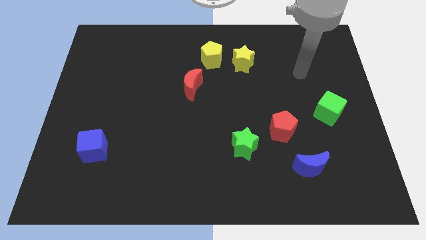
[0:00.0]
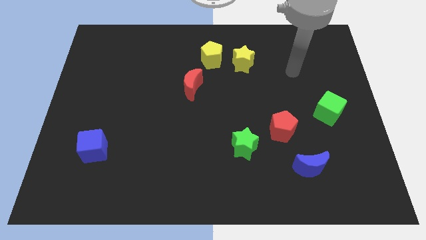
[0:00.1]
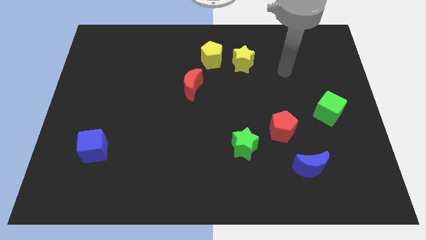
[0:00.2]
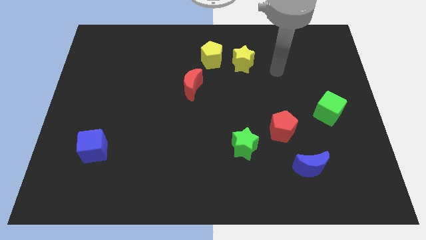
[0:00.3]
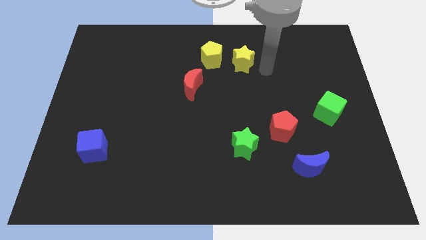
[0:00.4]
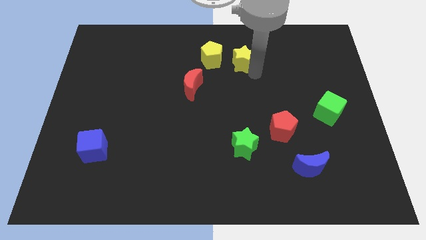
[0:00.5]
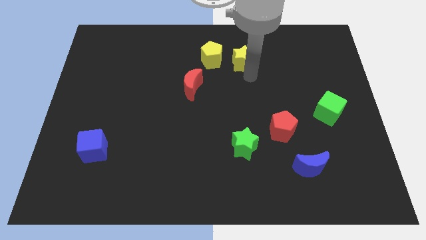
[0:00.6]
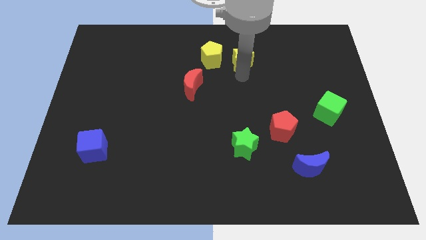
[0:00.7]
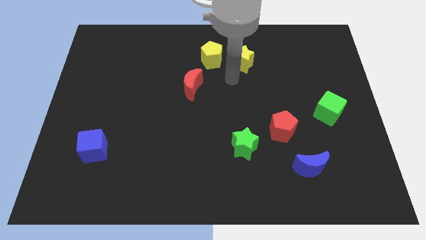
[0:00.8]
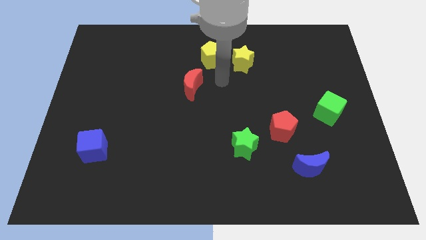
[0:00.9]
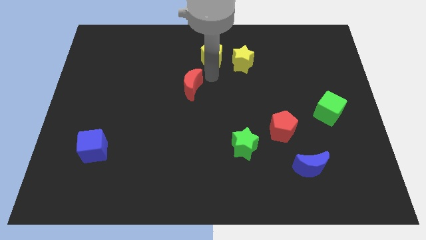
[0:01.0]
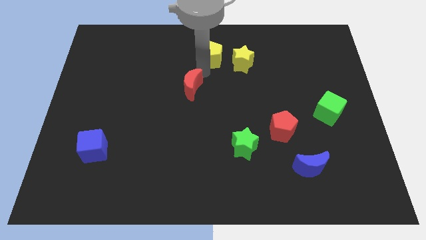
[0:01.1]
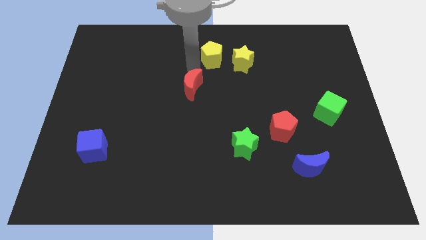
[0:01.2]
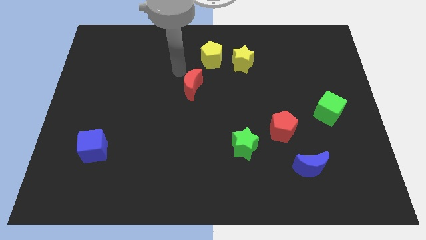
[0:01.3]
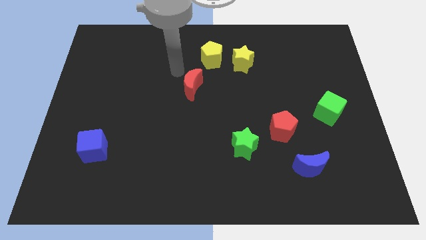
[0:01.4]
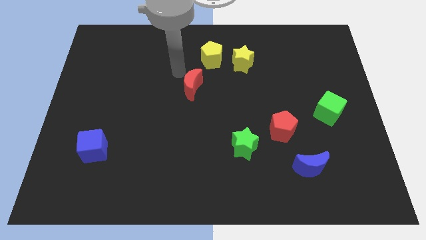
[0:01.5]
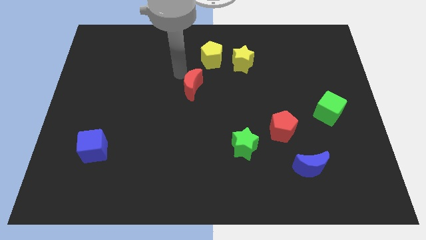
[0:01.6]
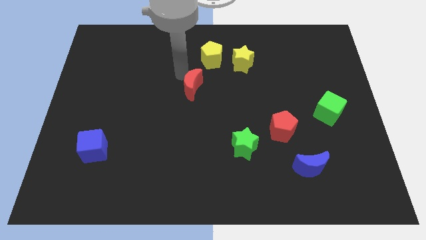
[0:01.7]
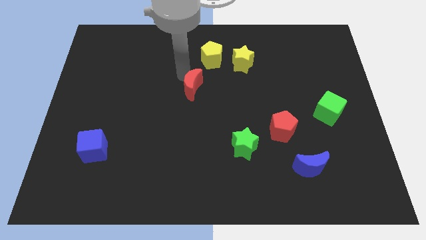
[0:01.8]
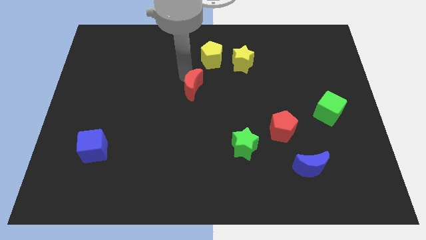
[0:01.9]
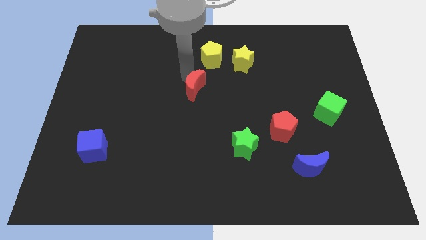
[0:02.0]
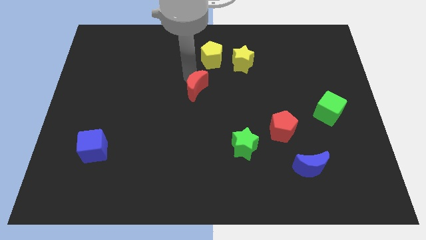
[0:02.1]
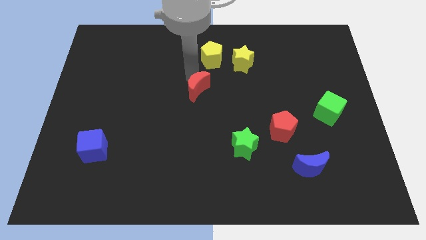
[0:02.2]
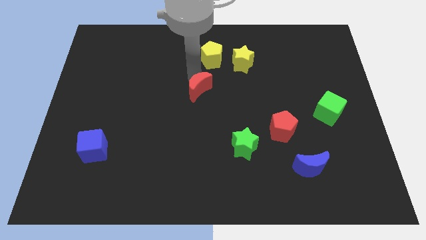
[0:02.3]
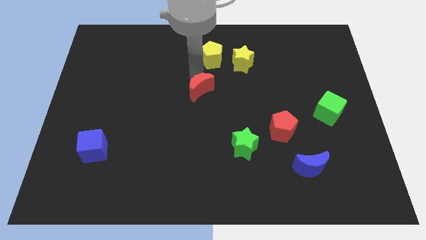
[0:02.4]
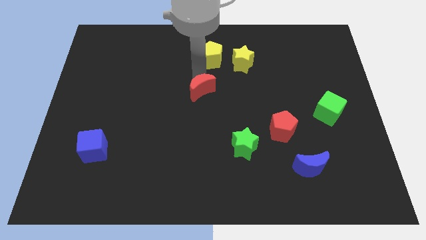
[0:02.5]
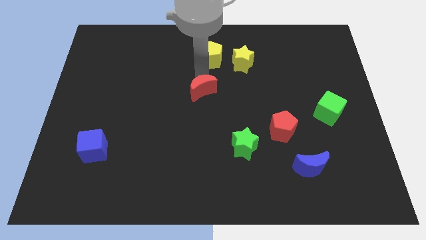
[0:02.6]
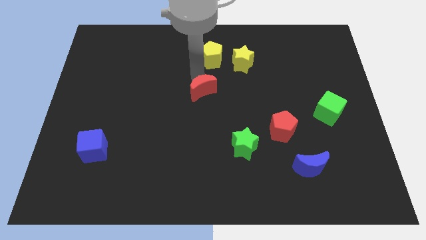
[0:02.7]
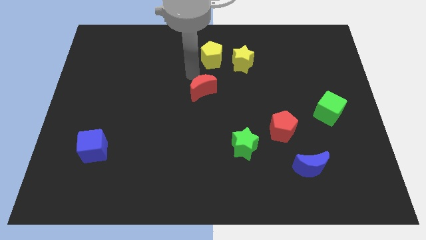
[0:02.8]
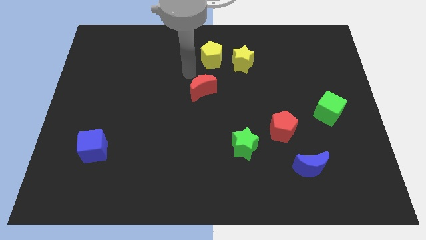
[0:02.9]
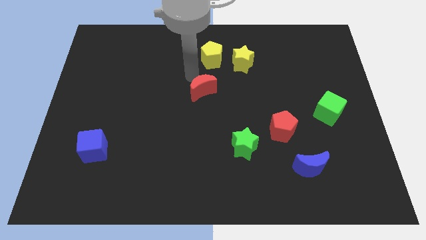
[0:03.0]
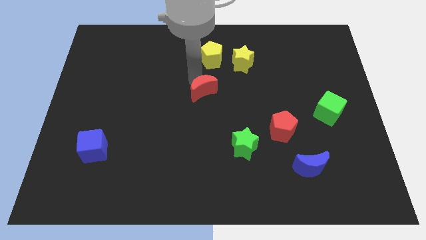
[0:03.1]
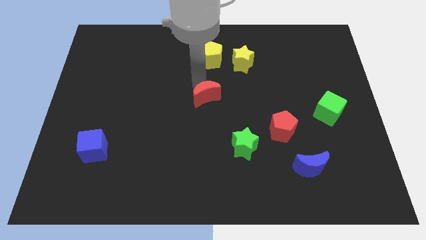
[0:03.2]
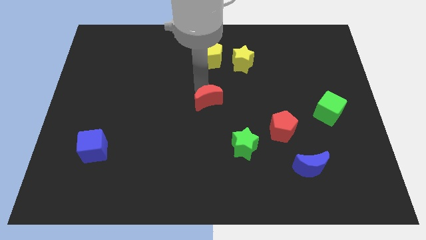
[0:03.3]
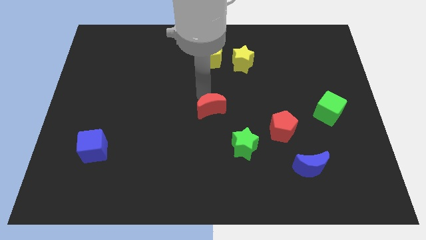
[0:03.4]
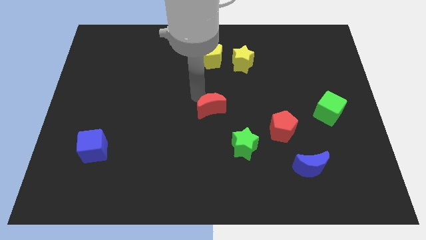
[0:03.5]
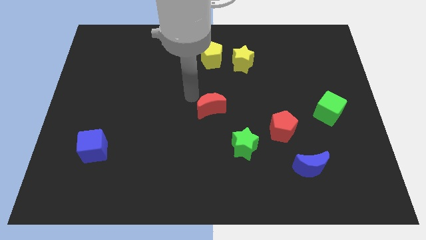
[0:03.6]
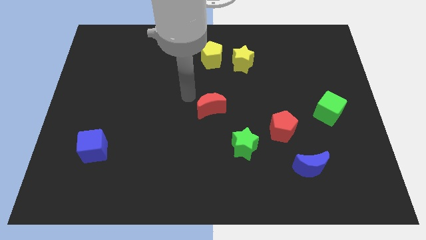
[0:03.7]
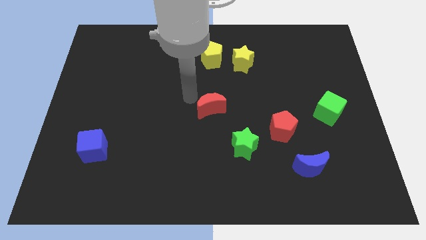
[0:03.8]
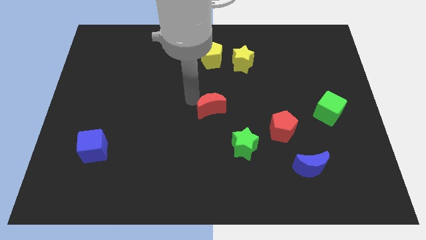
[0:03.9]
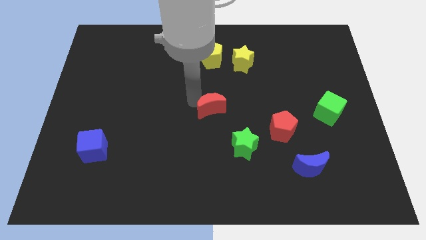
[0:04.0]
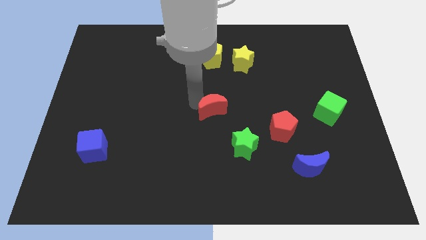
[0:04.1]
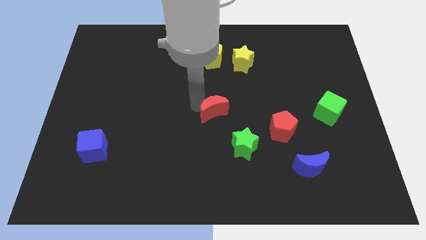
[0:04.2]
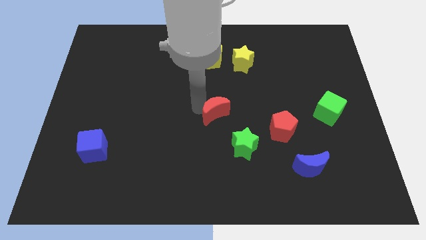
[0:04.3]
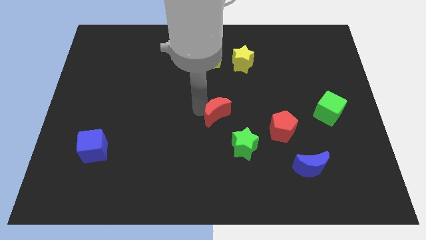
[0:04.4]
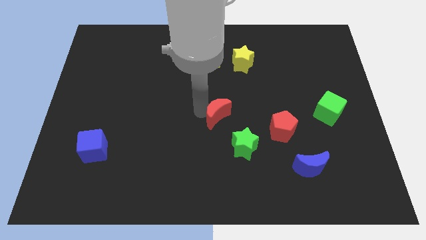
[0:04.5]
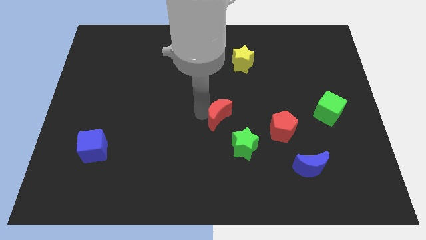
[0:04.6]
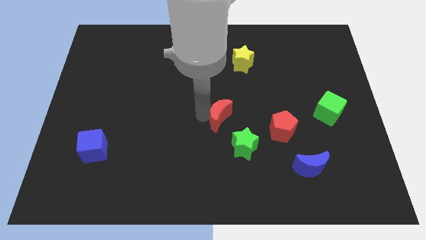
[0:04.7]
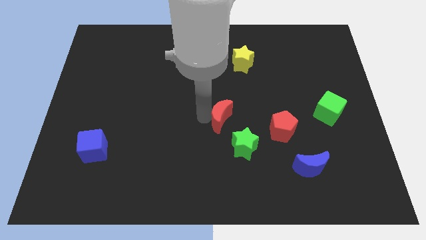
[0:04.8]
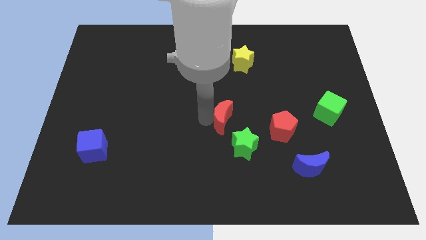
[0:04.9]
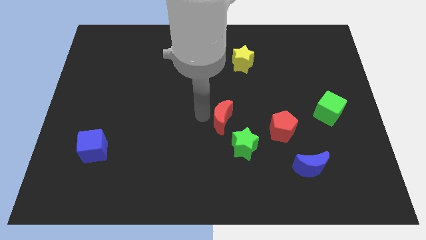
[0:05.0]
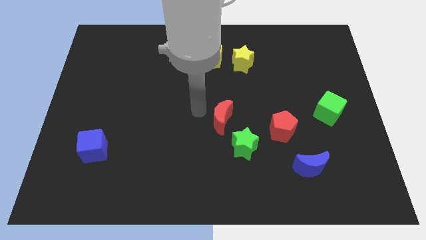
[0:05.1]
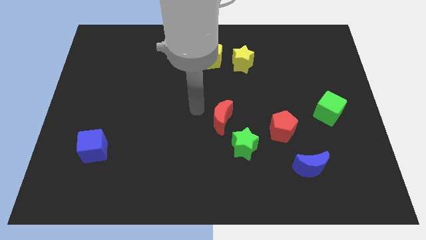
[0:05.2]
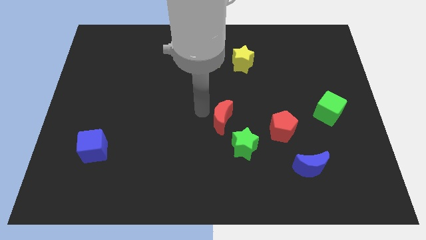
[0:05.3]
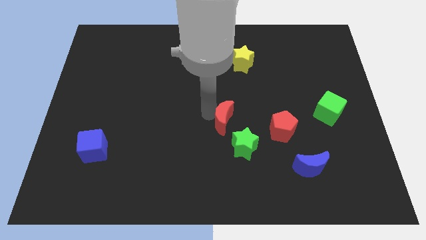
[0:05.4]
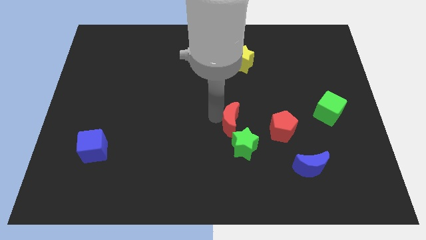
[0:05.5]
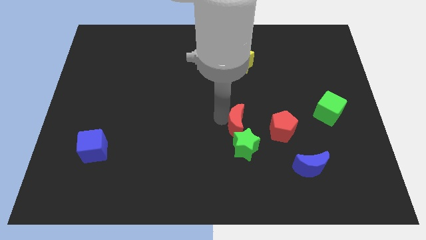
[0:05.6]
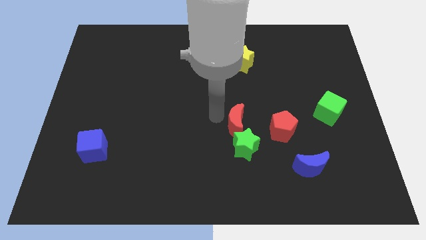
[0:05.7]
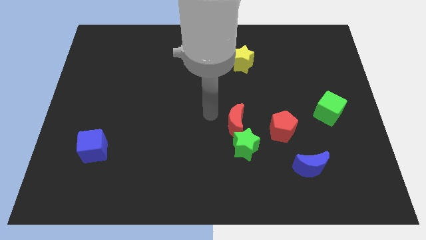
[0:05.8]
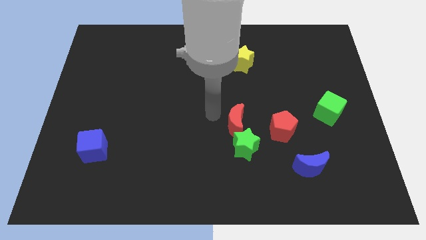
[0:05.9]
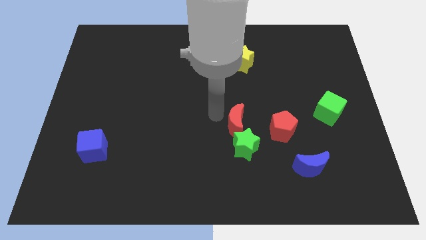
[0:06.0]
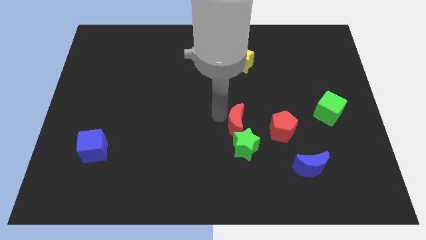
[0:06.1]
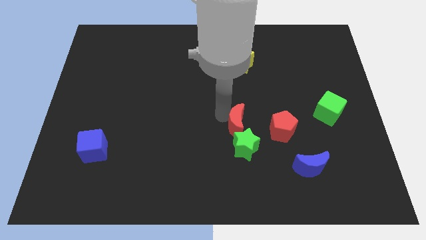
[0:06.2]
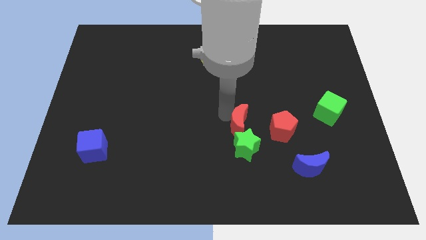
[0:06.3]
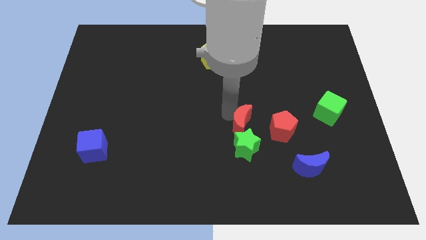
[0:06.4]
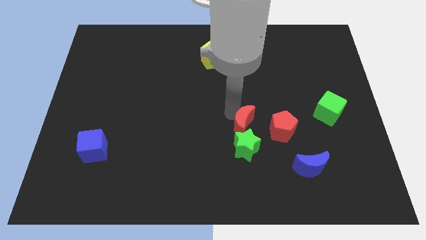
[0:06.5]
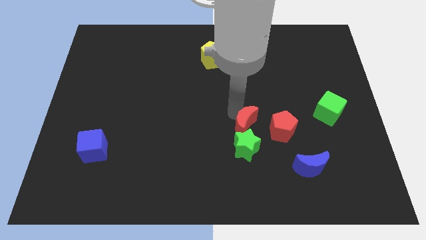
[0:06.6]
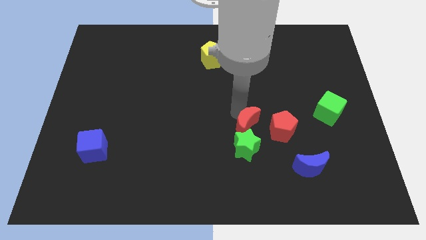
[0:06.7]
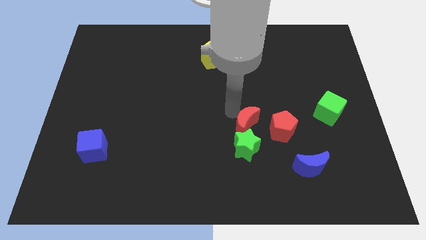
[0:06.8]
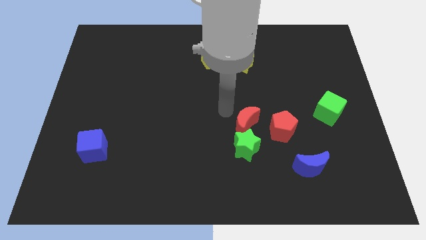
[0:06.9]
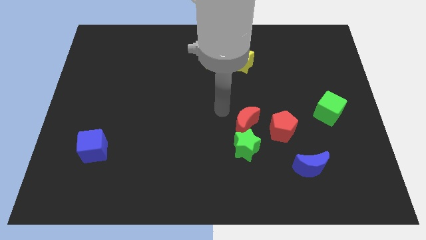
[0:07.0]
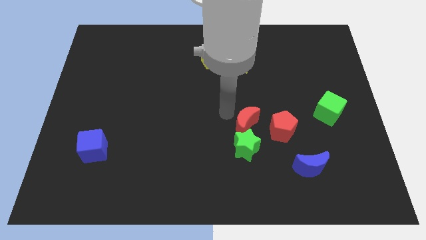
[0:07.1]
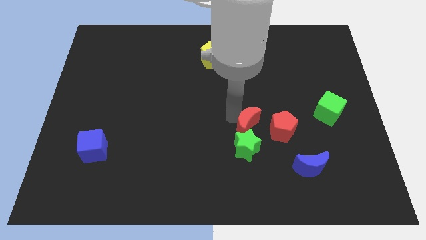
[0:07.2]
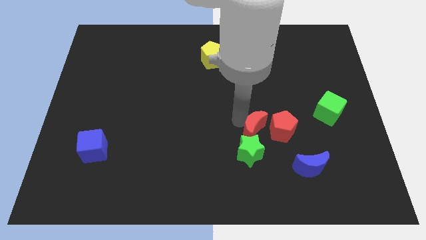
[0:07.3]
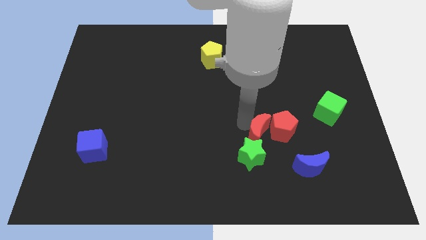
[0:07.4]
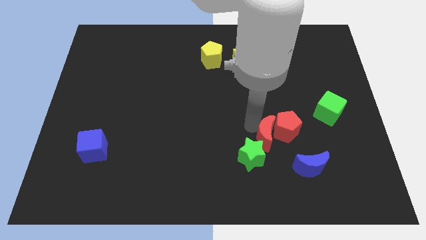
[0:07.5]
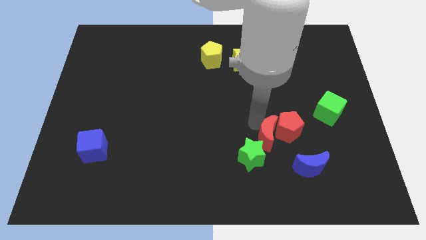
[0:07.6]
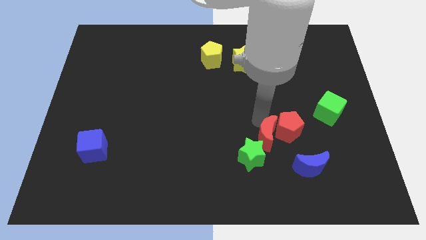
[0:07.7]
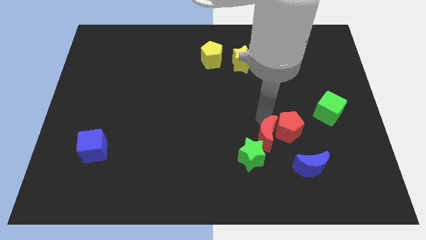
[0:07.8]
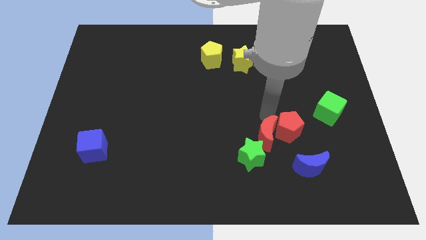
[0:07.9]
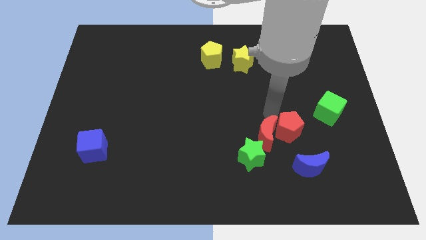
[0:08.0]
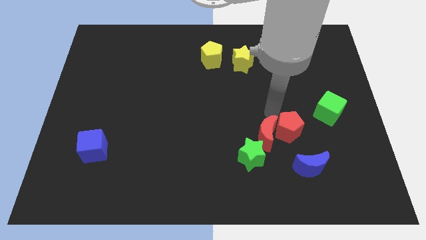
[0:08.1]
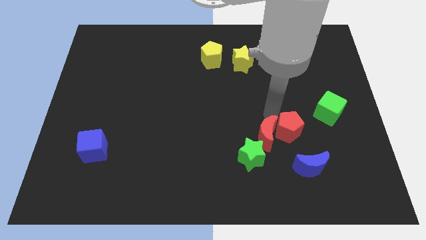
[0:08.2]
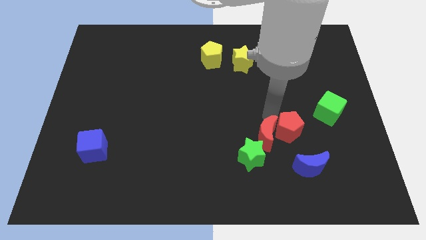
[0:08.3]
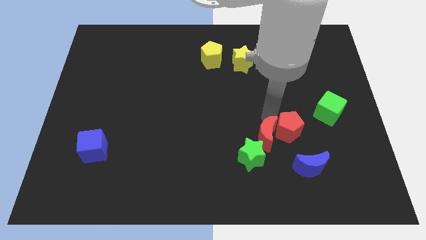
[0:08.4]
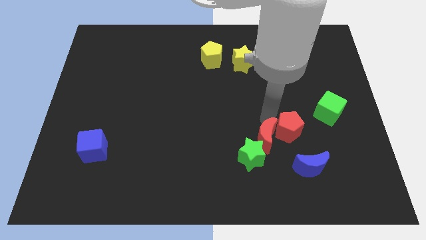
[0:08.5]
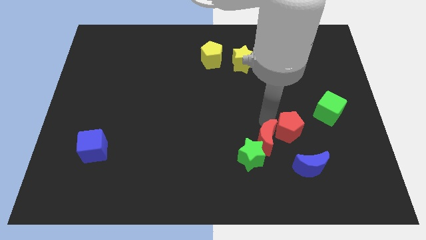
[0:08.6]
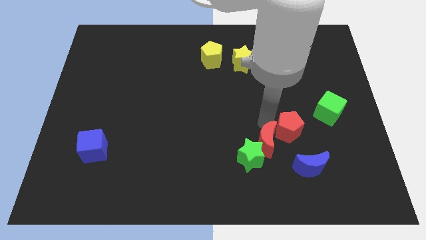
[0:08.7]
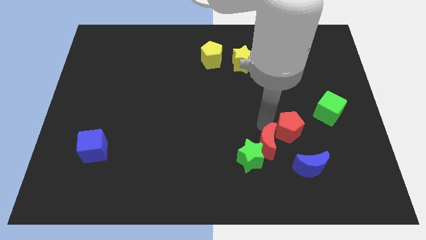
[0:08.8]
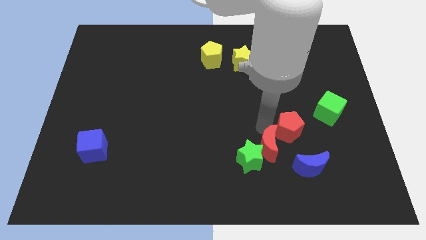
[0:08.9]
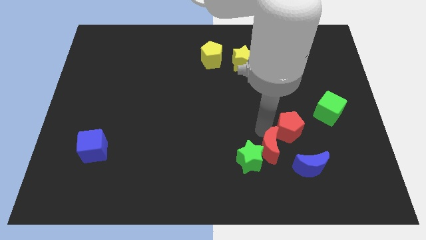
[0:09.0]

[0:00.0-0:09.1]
slide the red moon left of the blue moon
